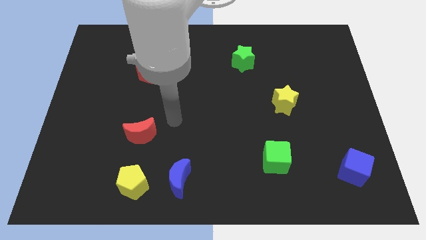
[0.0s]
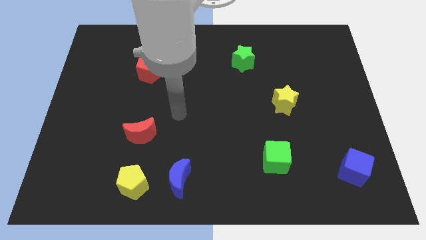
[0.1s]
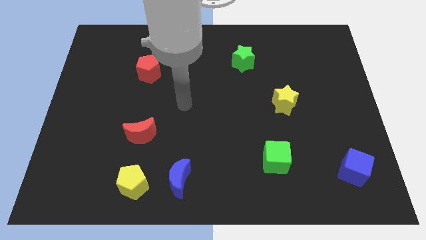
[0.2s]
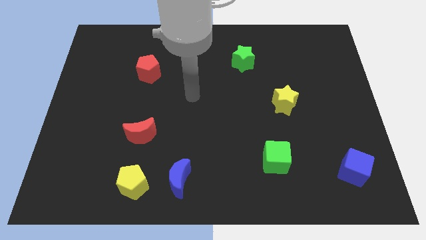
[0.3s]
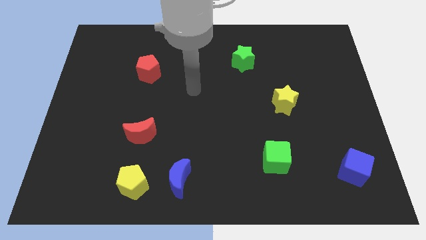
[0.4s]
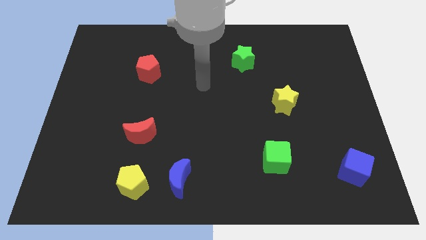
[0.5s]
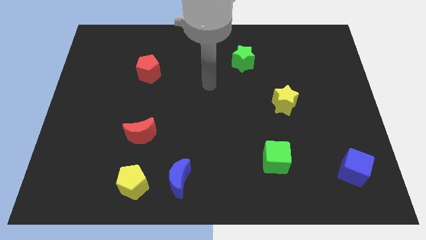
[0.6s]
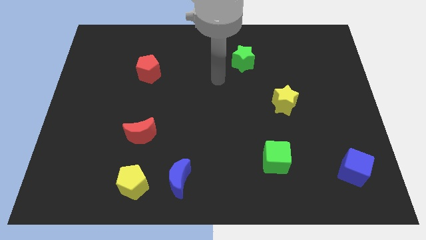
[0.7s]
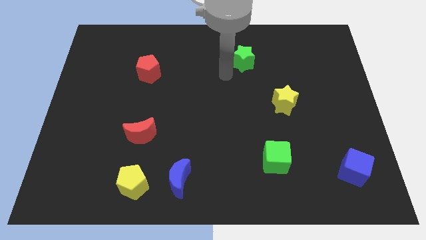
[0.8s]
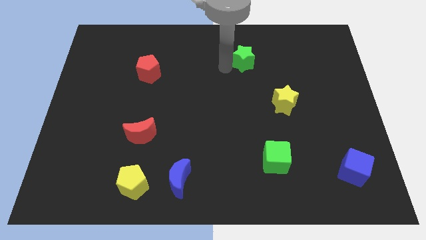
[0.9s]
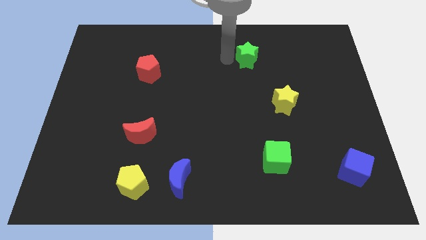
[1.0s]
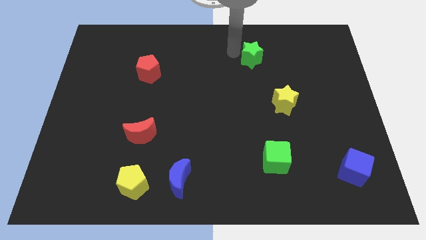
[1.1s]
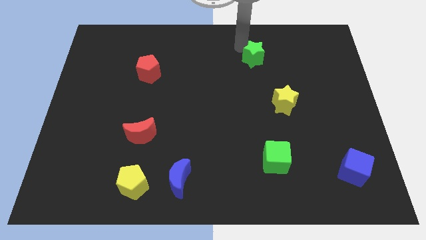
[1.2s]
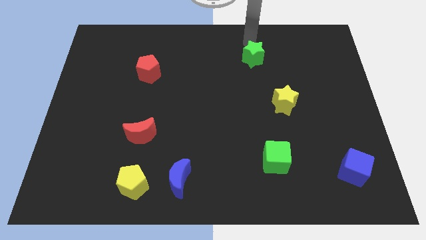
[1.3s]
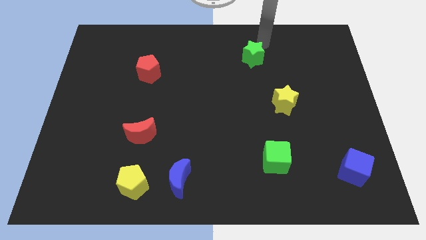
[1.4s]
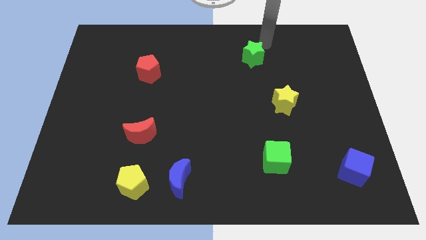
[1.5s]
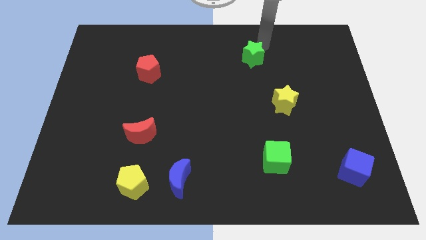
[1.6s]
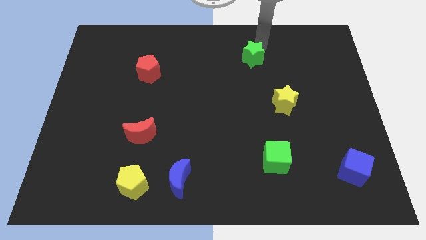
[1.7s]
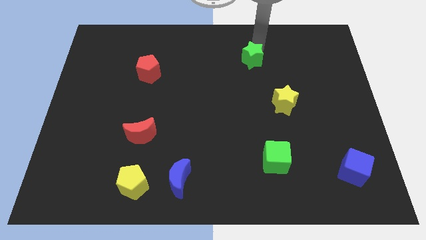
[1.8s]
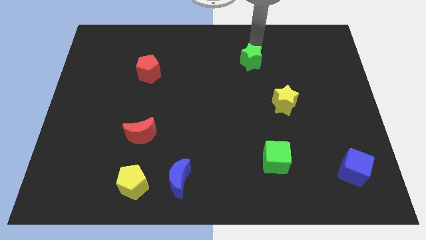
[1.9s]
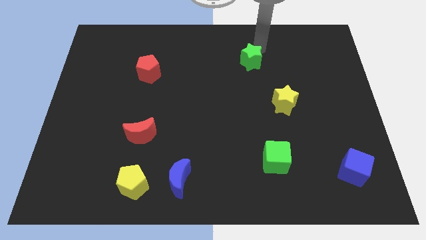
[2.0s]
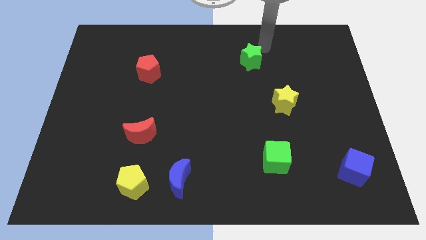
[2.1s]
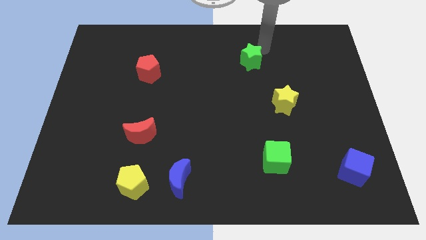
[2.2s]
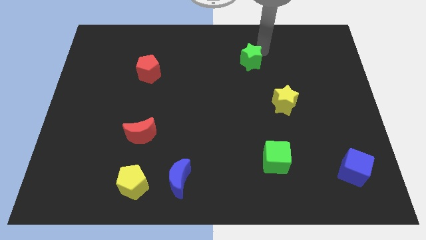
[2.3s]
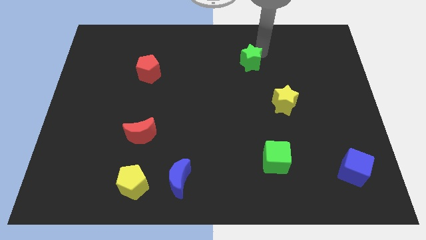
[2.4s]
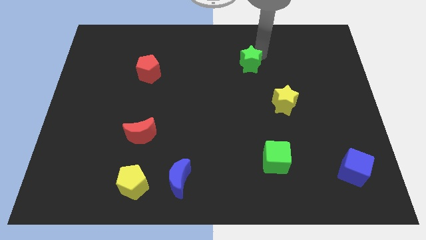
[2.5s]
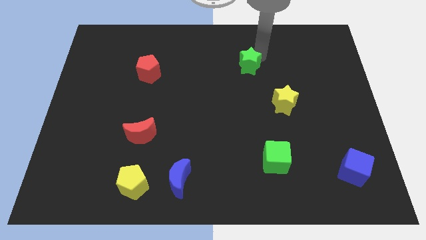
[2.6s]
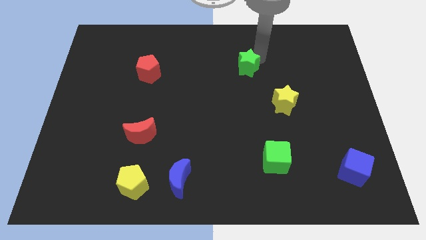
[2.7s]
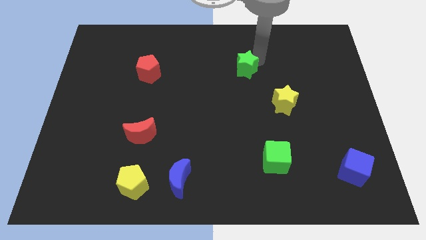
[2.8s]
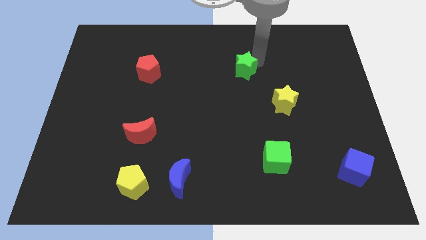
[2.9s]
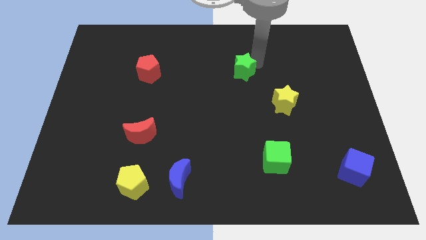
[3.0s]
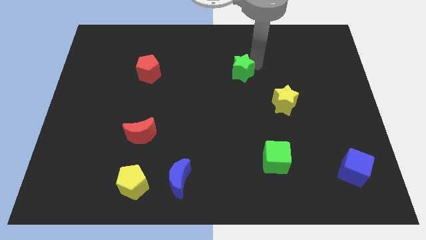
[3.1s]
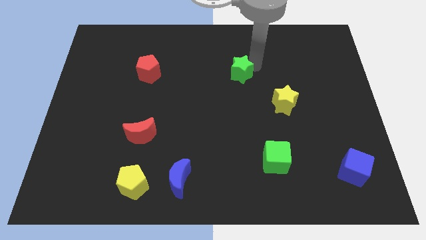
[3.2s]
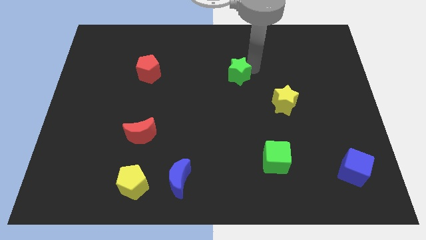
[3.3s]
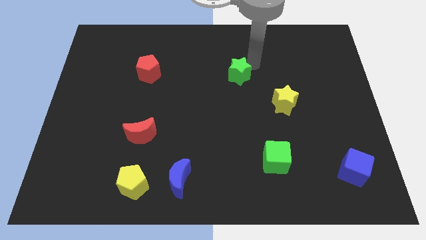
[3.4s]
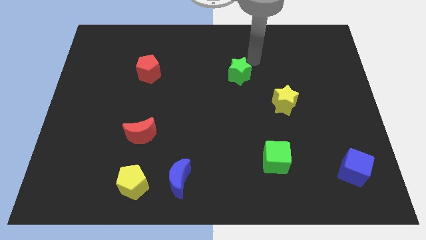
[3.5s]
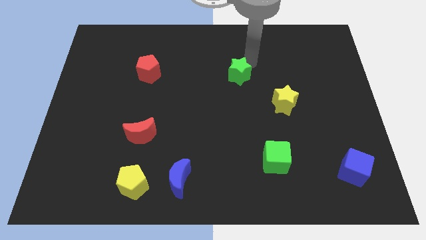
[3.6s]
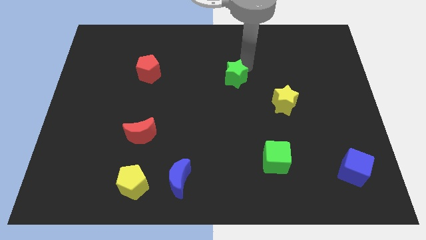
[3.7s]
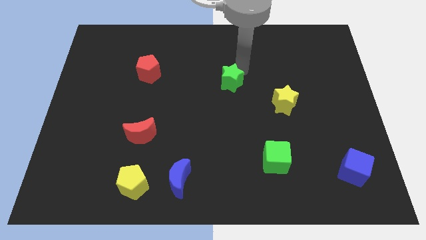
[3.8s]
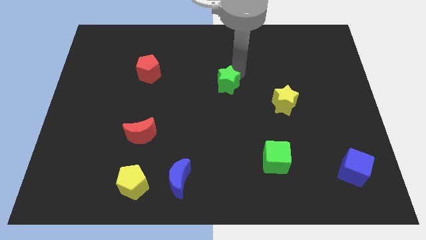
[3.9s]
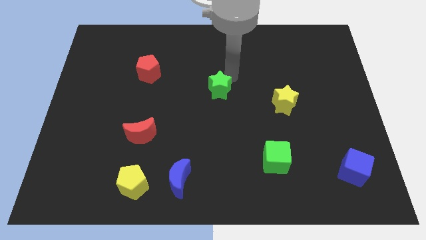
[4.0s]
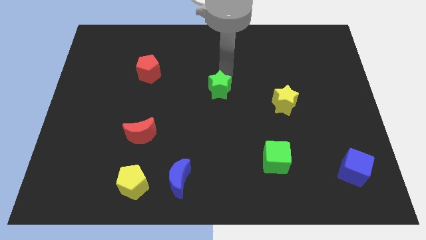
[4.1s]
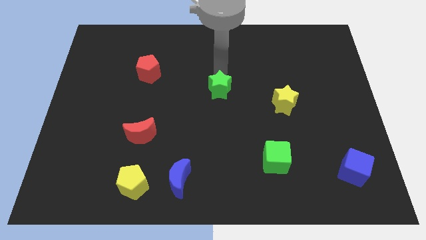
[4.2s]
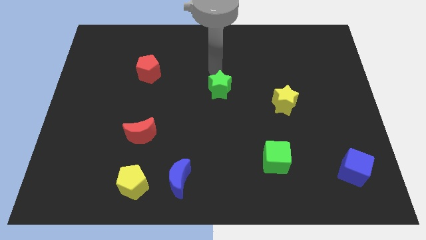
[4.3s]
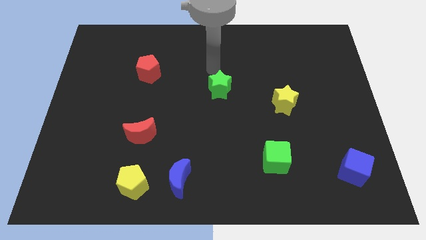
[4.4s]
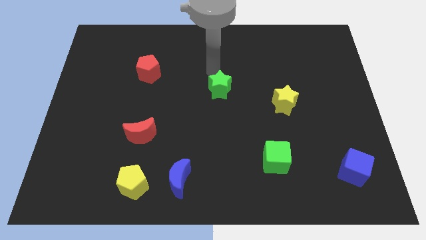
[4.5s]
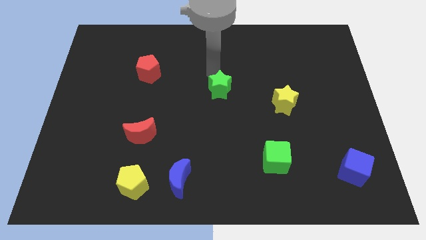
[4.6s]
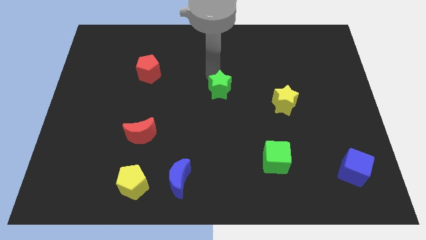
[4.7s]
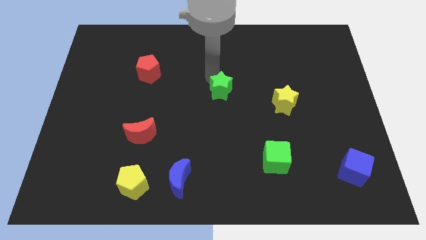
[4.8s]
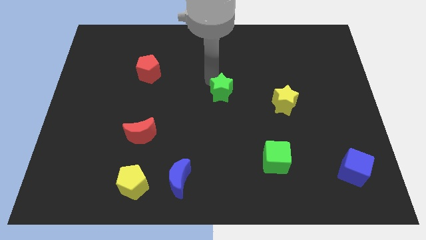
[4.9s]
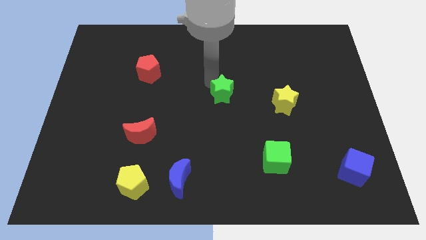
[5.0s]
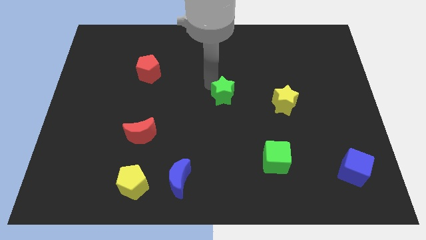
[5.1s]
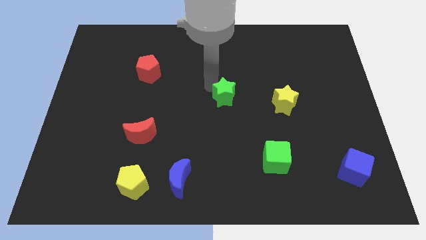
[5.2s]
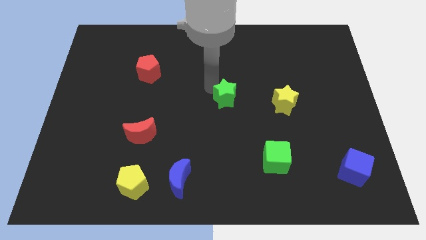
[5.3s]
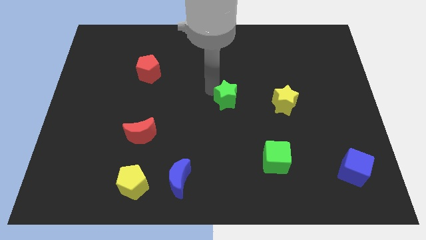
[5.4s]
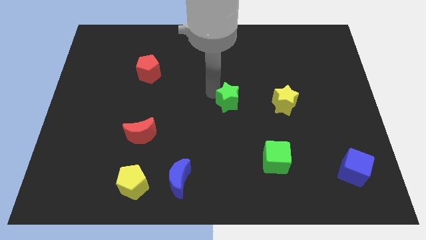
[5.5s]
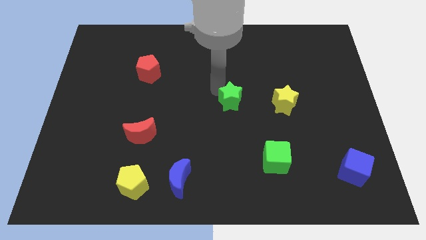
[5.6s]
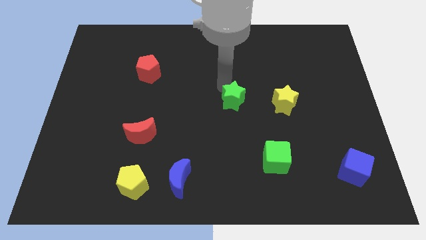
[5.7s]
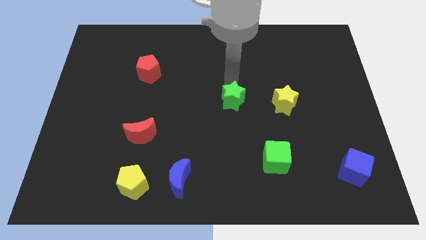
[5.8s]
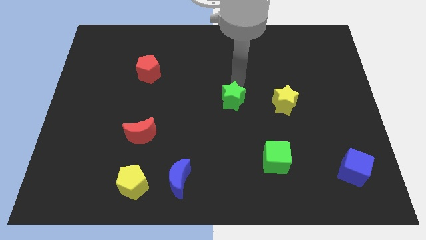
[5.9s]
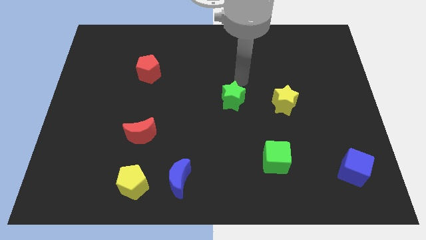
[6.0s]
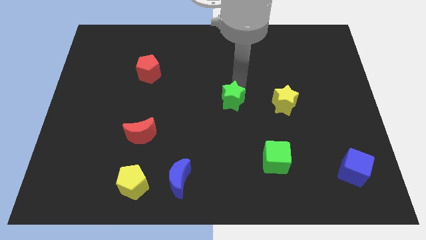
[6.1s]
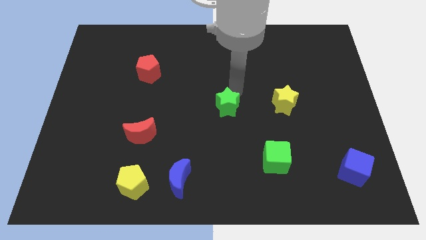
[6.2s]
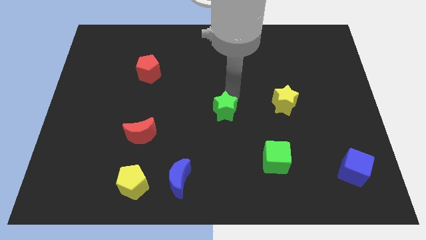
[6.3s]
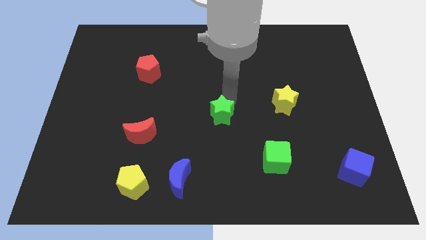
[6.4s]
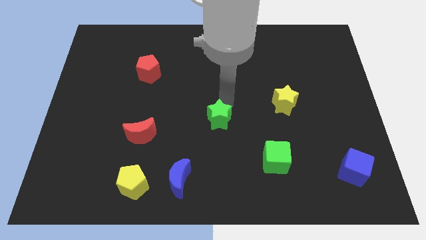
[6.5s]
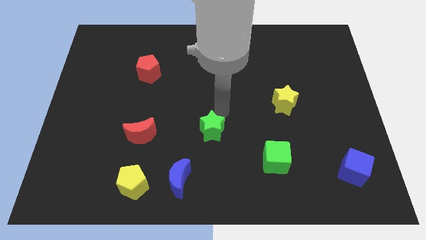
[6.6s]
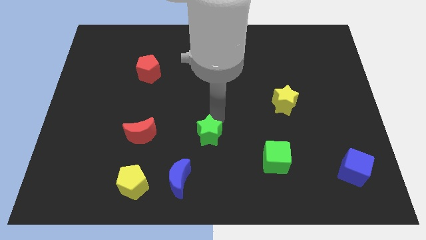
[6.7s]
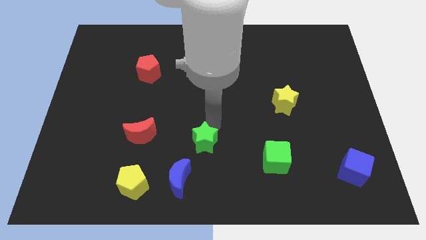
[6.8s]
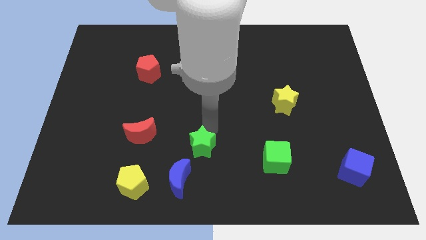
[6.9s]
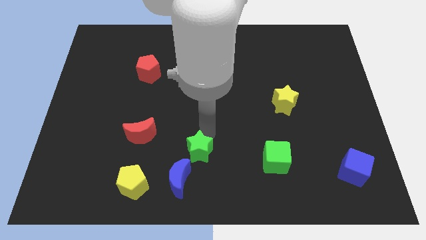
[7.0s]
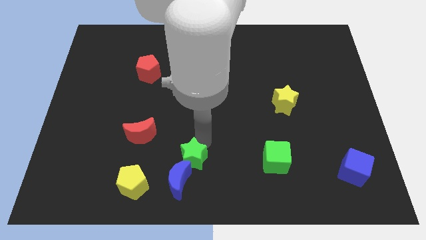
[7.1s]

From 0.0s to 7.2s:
slide the green star to the blue moon

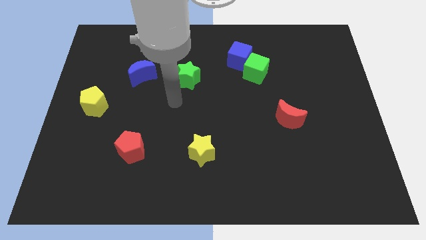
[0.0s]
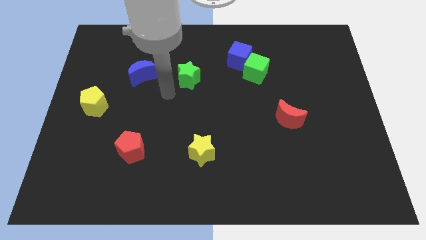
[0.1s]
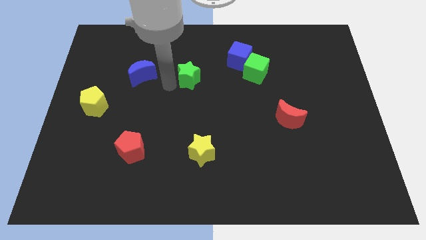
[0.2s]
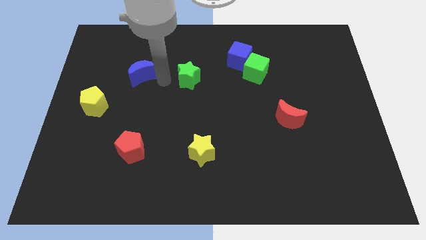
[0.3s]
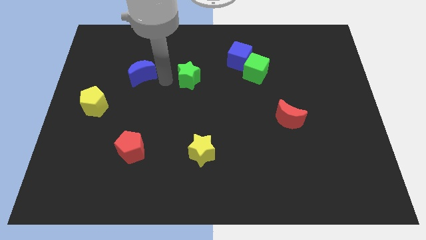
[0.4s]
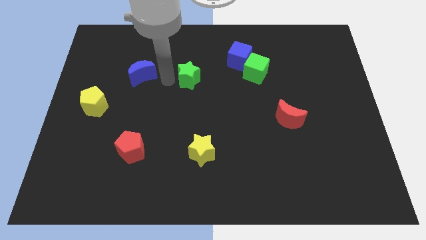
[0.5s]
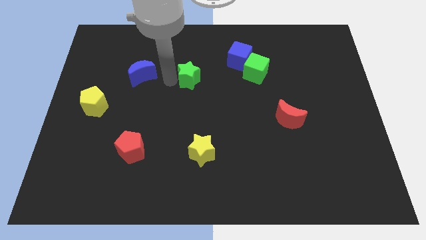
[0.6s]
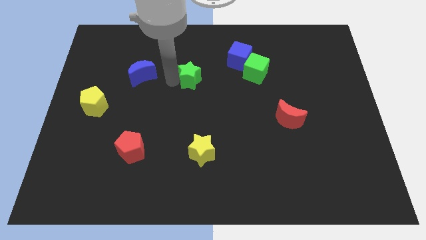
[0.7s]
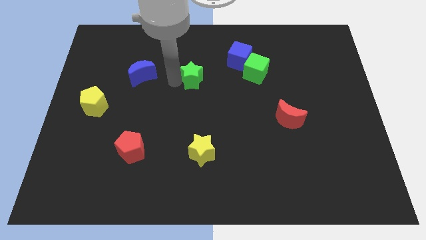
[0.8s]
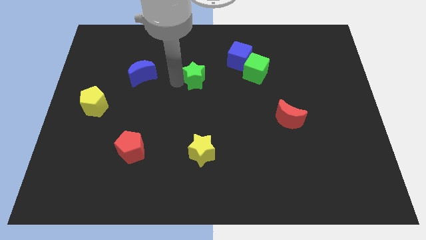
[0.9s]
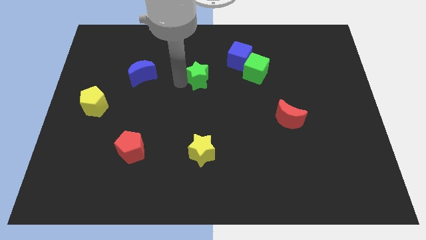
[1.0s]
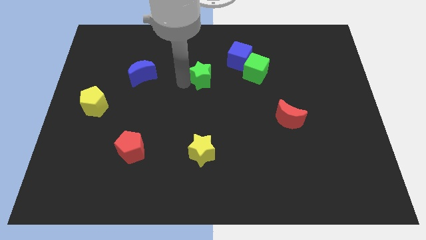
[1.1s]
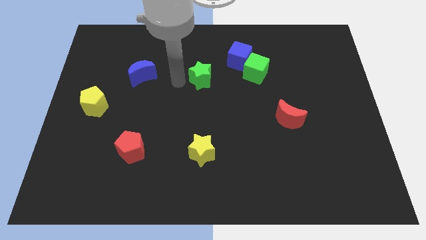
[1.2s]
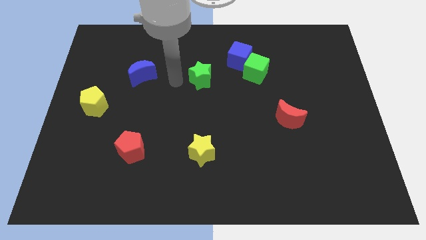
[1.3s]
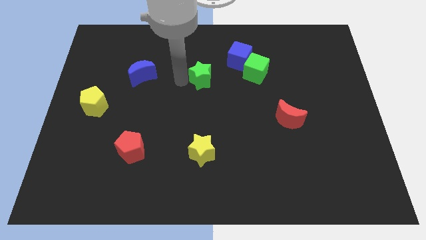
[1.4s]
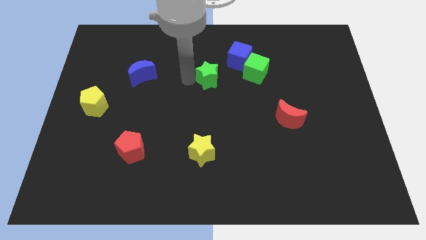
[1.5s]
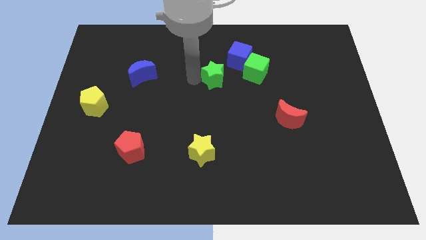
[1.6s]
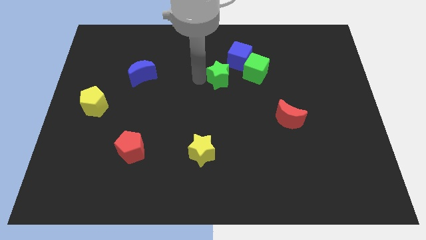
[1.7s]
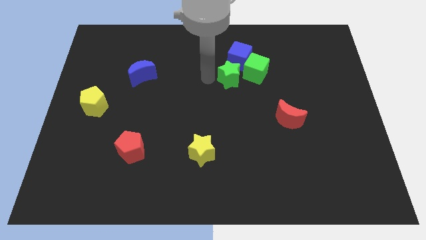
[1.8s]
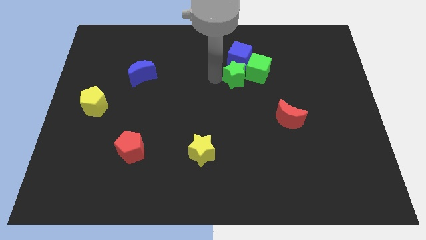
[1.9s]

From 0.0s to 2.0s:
move the green star to the green cube
